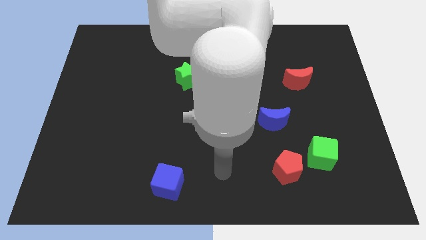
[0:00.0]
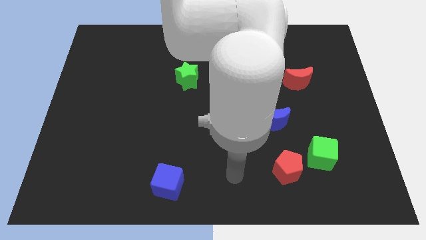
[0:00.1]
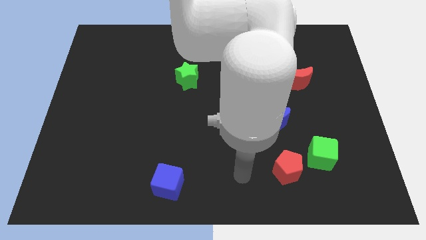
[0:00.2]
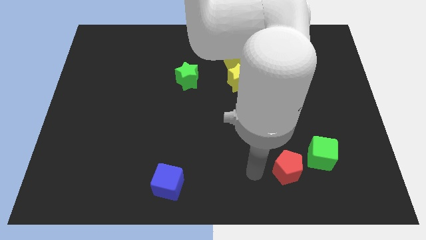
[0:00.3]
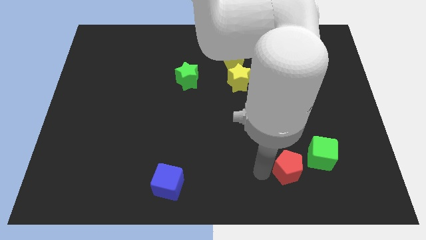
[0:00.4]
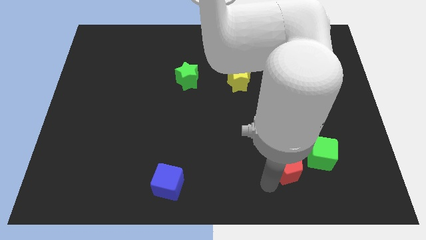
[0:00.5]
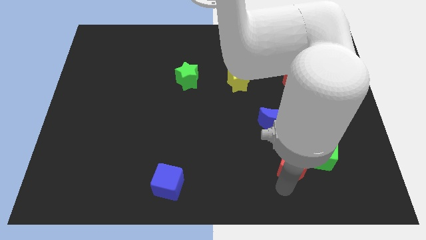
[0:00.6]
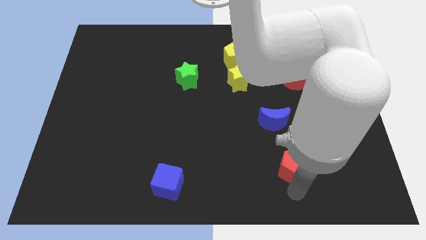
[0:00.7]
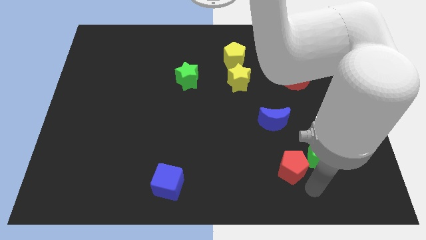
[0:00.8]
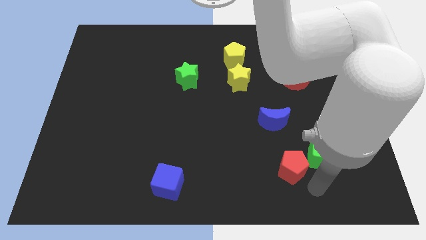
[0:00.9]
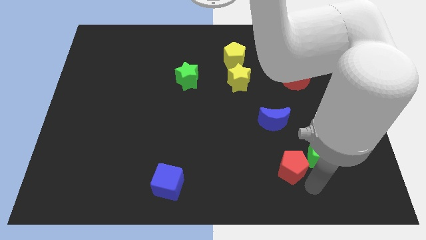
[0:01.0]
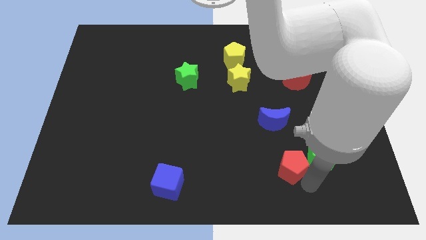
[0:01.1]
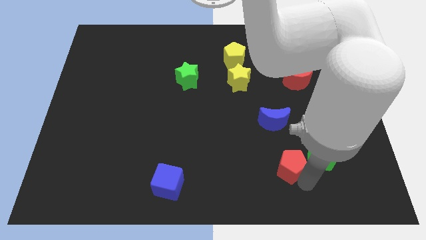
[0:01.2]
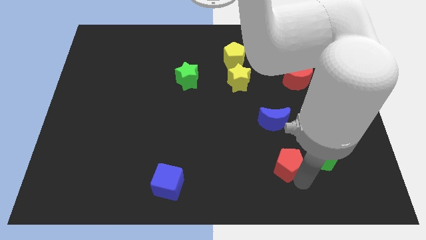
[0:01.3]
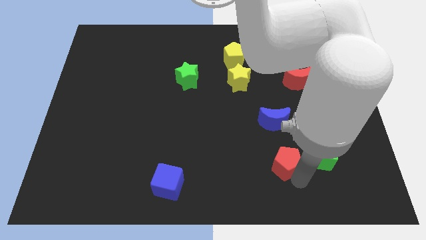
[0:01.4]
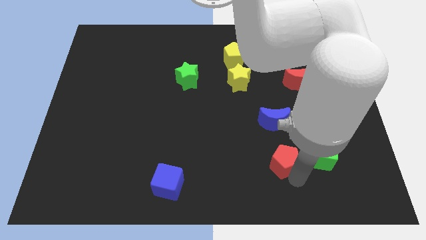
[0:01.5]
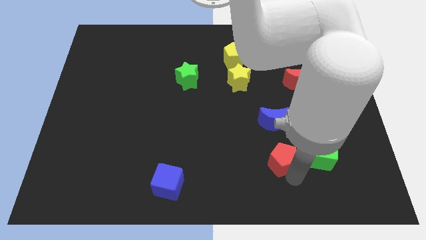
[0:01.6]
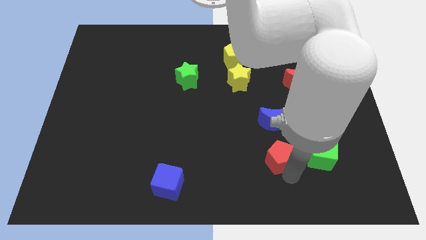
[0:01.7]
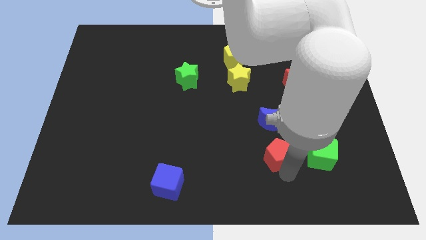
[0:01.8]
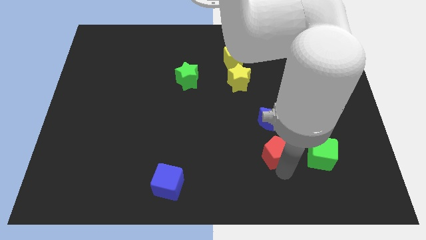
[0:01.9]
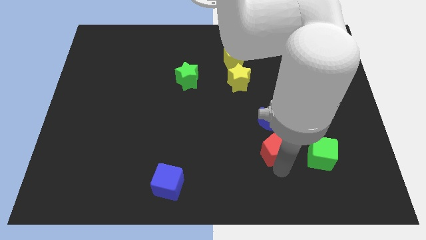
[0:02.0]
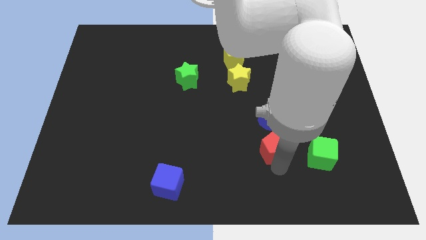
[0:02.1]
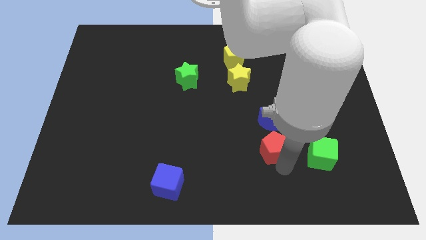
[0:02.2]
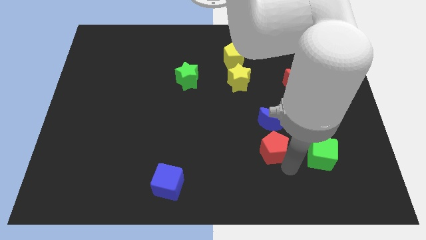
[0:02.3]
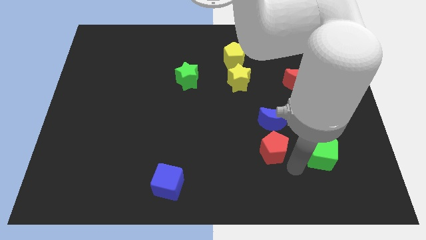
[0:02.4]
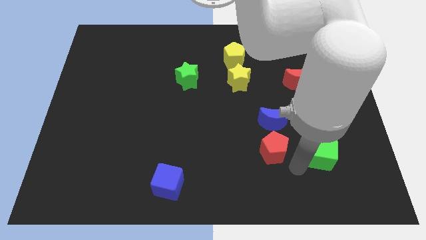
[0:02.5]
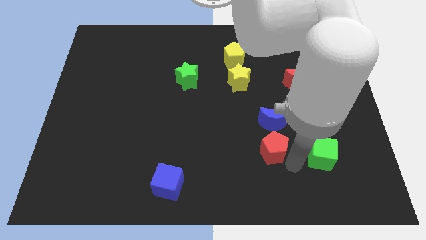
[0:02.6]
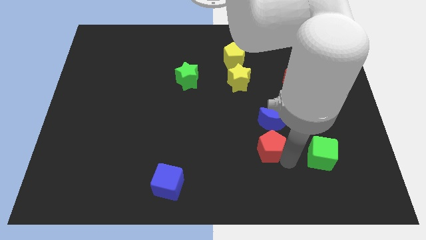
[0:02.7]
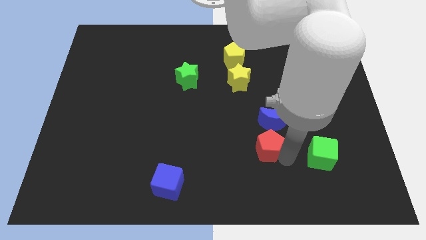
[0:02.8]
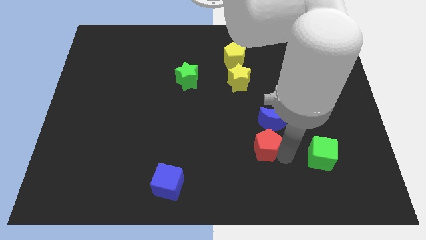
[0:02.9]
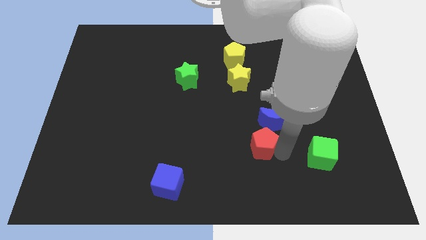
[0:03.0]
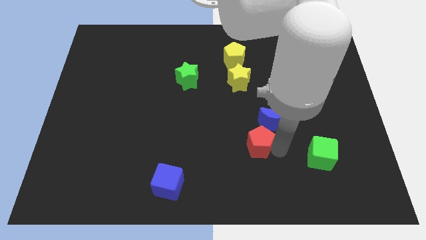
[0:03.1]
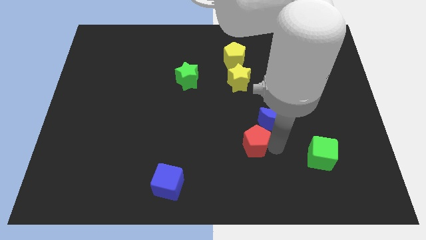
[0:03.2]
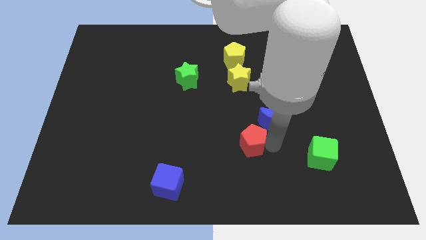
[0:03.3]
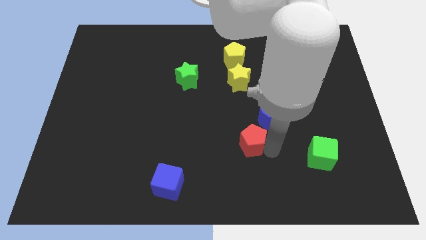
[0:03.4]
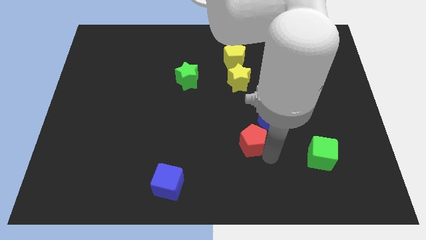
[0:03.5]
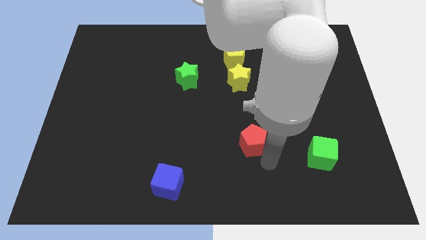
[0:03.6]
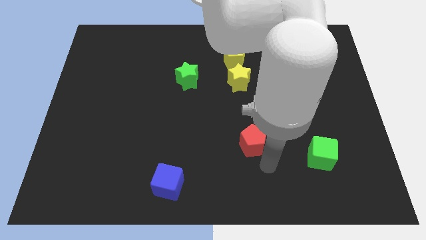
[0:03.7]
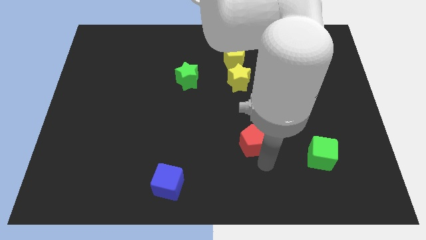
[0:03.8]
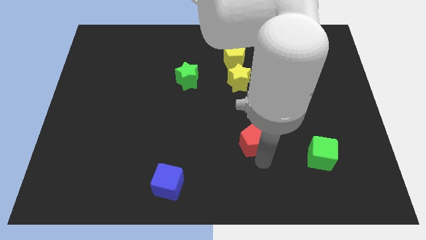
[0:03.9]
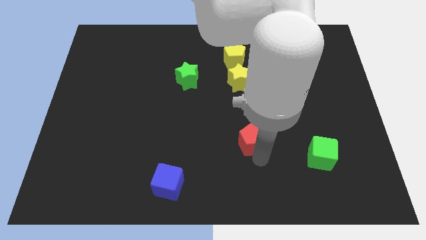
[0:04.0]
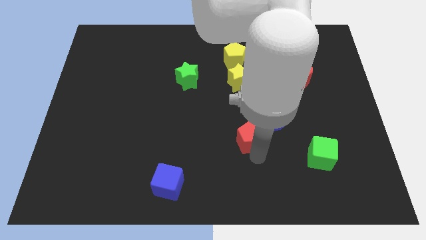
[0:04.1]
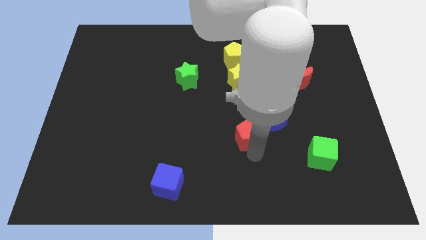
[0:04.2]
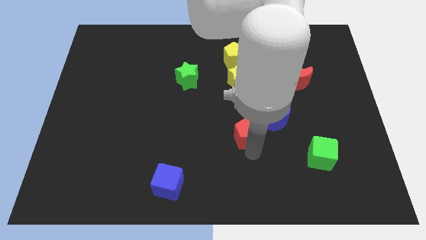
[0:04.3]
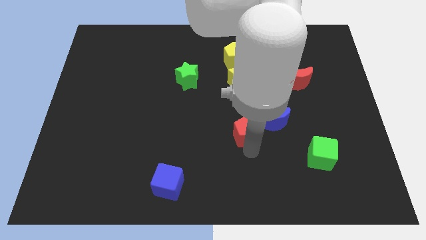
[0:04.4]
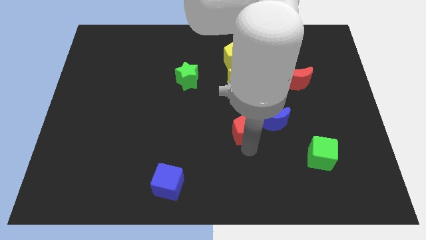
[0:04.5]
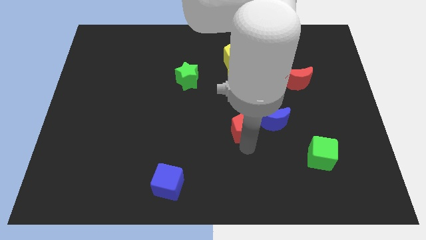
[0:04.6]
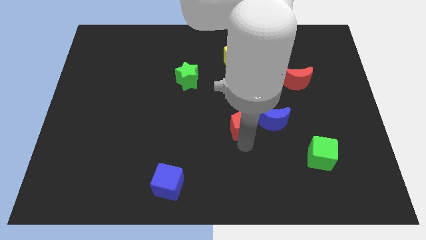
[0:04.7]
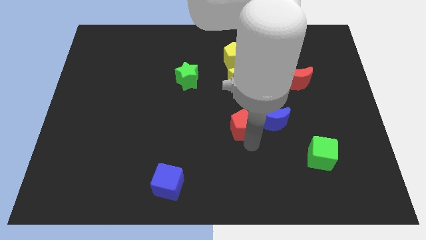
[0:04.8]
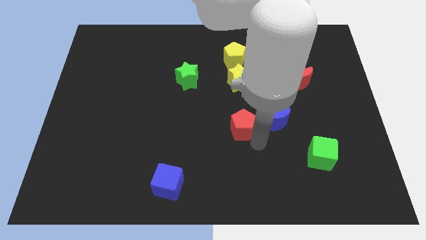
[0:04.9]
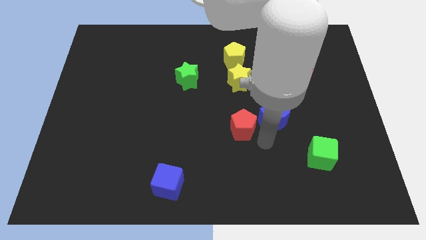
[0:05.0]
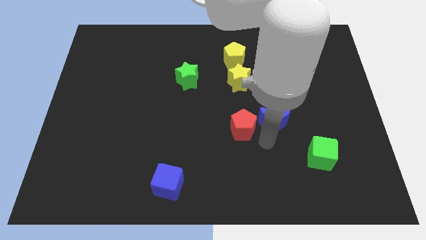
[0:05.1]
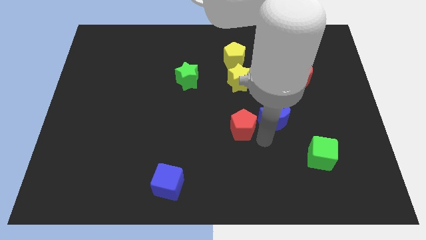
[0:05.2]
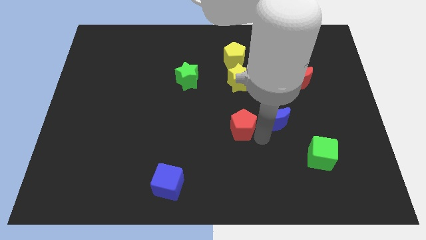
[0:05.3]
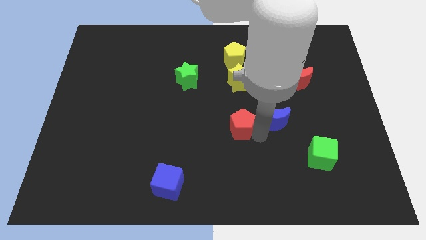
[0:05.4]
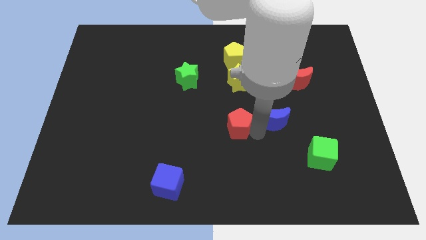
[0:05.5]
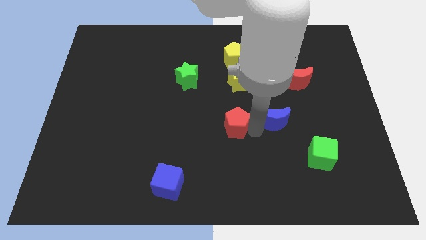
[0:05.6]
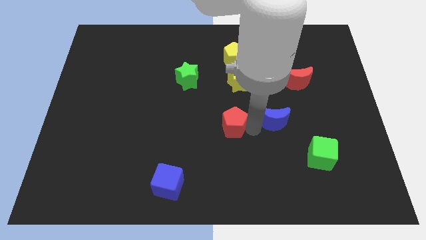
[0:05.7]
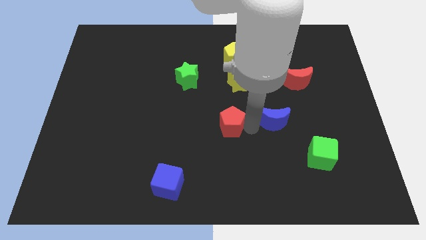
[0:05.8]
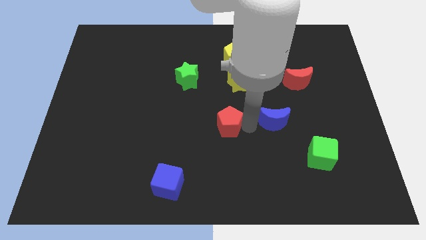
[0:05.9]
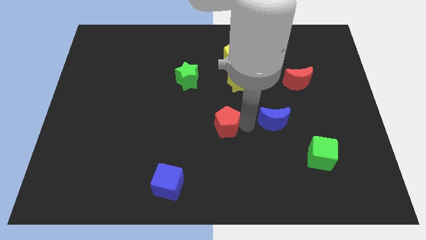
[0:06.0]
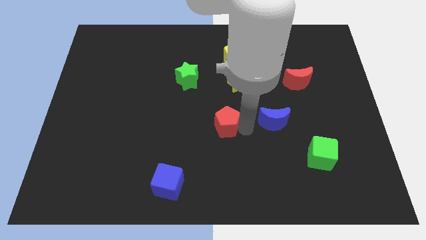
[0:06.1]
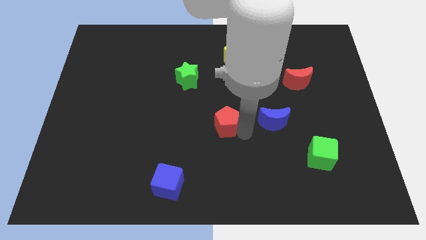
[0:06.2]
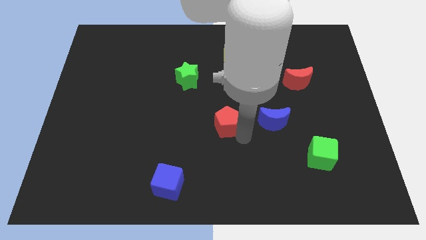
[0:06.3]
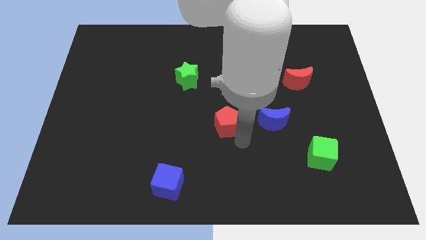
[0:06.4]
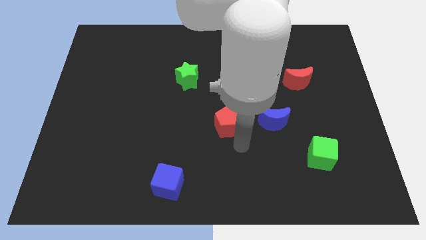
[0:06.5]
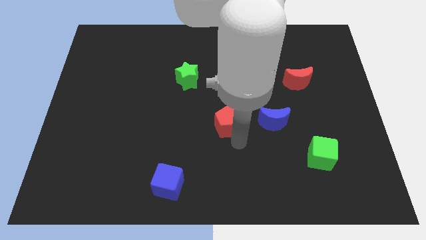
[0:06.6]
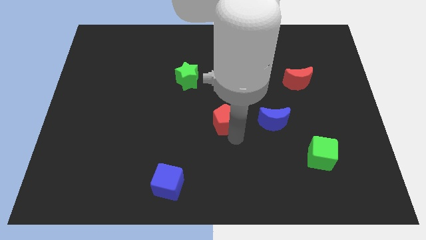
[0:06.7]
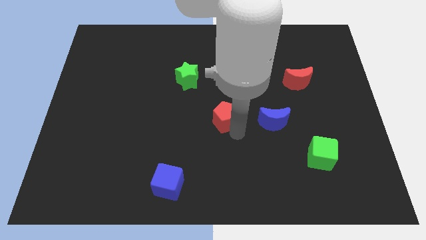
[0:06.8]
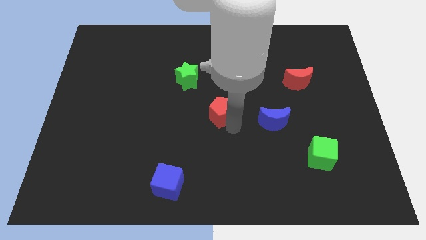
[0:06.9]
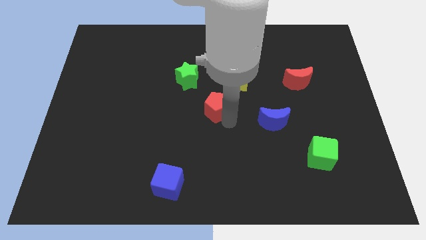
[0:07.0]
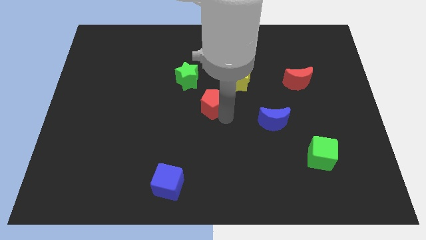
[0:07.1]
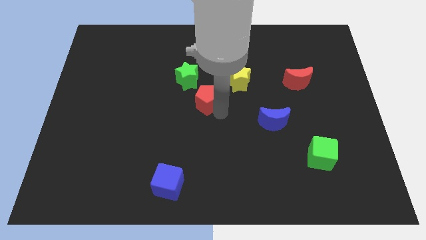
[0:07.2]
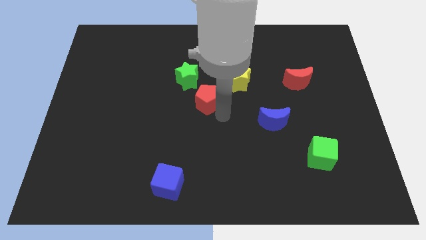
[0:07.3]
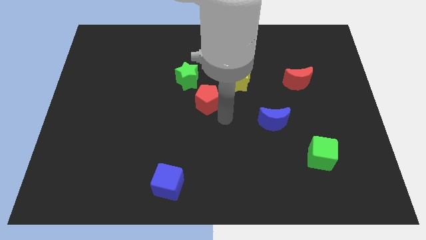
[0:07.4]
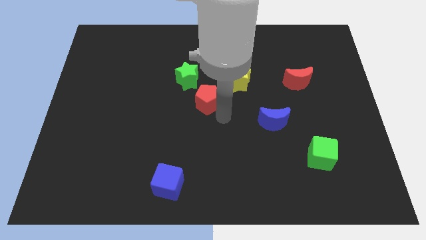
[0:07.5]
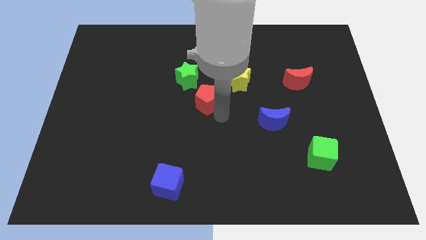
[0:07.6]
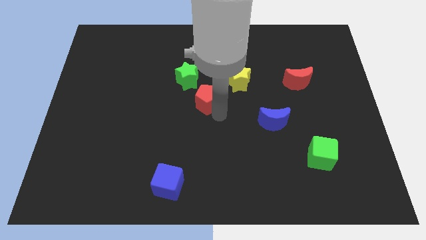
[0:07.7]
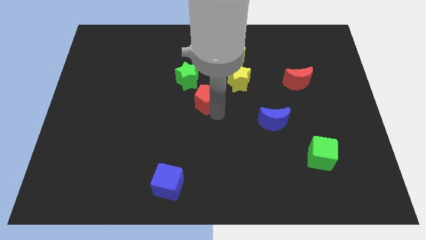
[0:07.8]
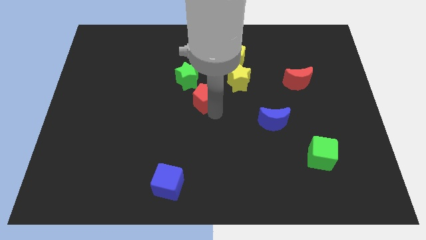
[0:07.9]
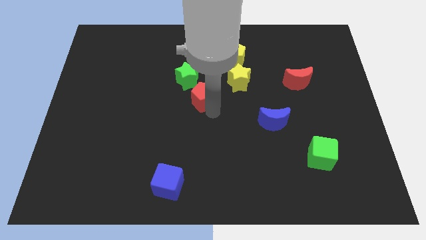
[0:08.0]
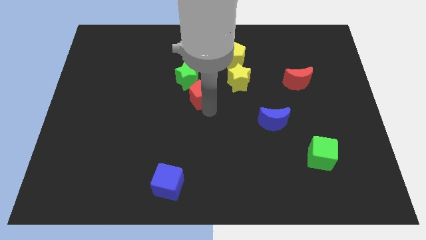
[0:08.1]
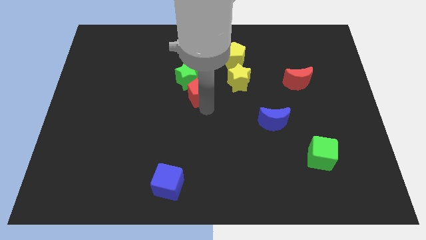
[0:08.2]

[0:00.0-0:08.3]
move the red pentagon close to the green star
